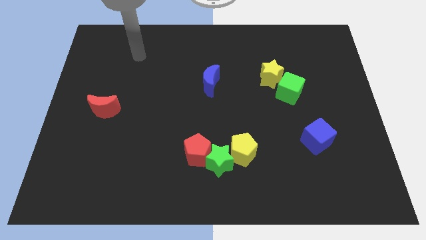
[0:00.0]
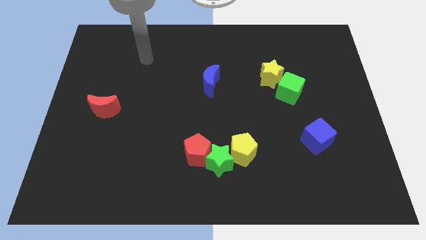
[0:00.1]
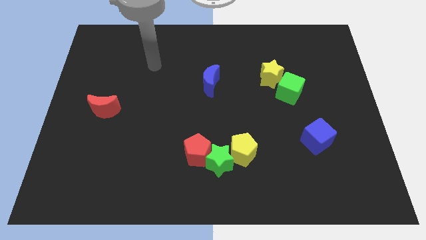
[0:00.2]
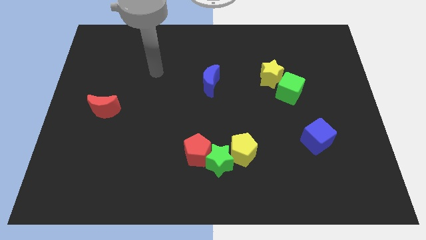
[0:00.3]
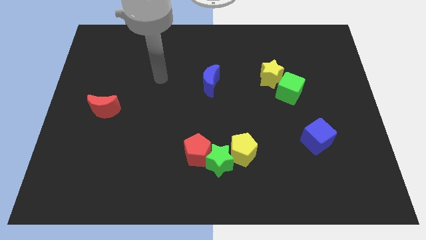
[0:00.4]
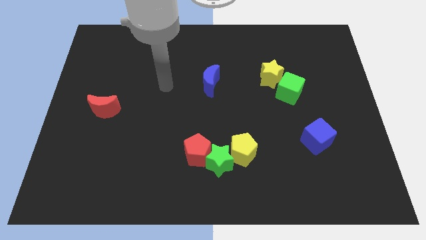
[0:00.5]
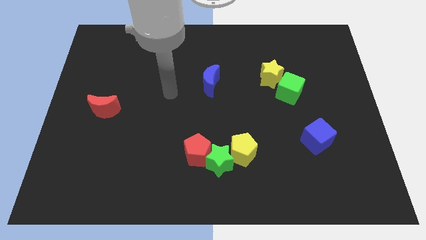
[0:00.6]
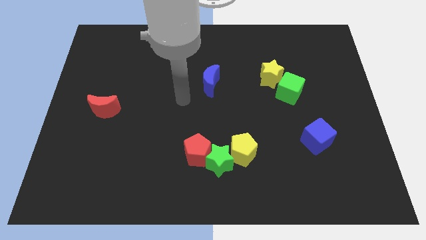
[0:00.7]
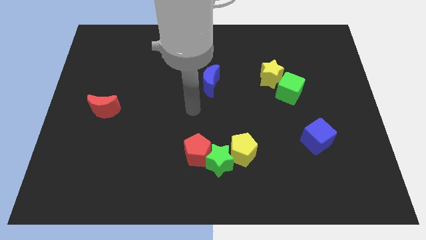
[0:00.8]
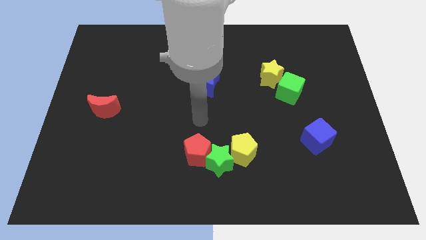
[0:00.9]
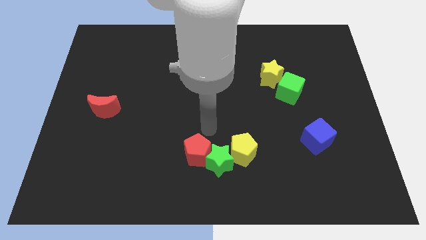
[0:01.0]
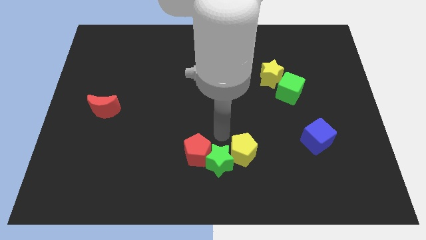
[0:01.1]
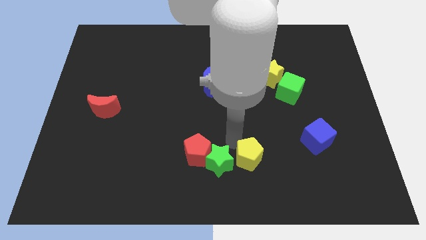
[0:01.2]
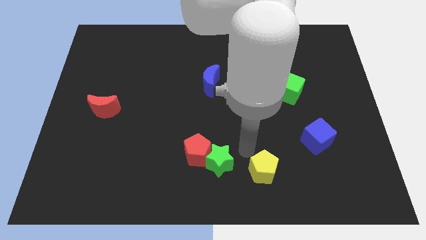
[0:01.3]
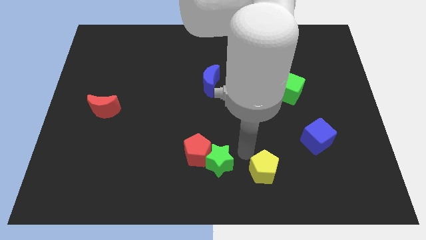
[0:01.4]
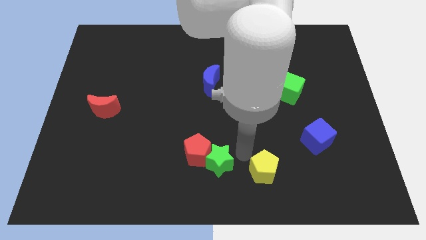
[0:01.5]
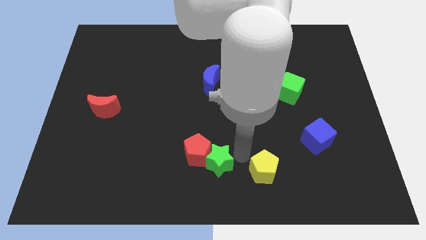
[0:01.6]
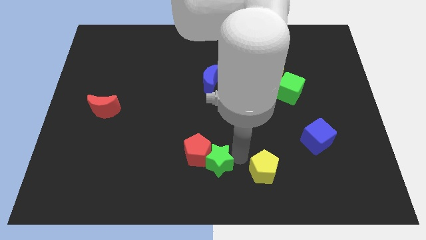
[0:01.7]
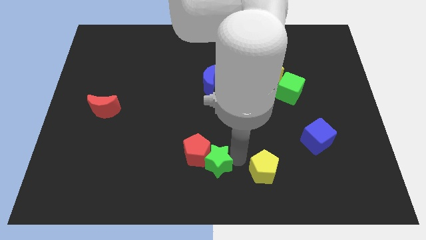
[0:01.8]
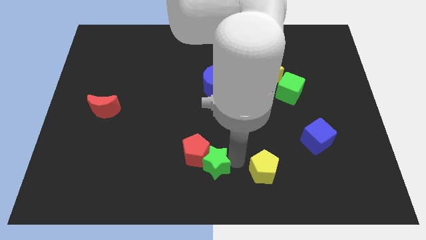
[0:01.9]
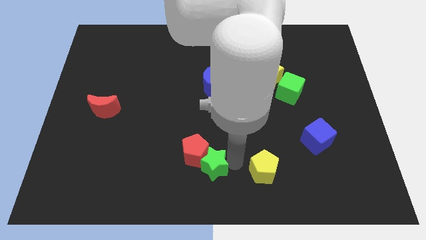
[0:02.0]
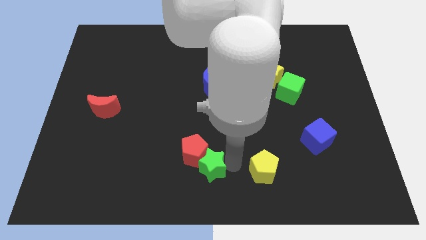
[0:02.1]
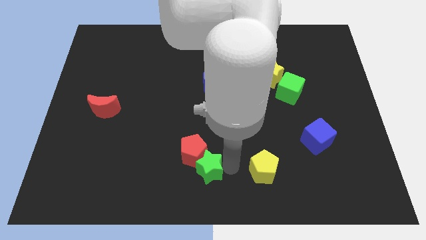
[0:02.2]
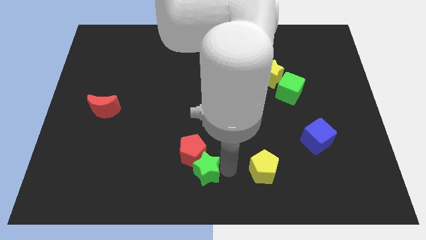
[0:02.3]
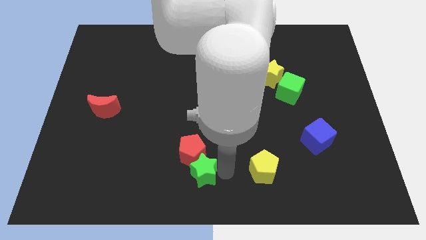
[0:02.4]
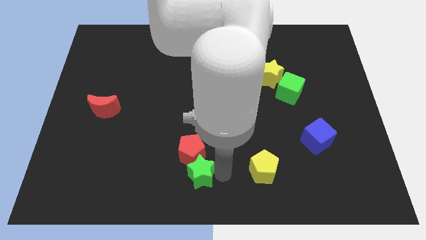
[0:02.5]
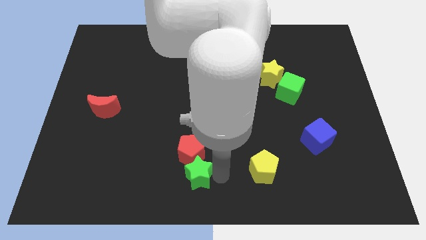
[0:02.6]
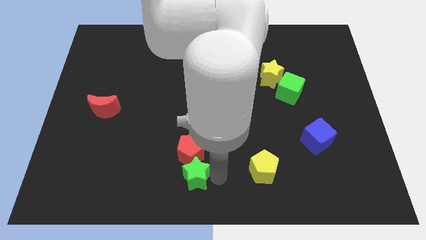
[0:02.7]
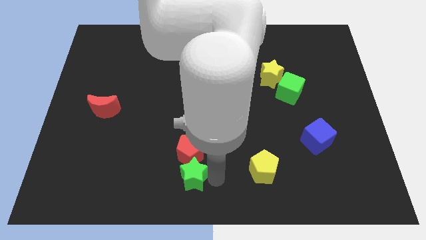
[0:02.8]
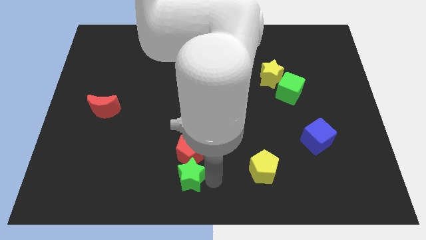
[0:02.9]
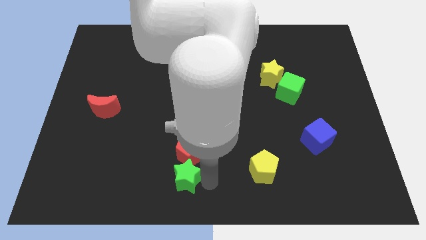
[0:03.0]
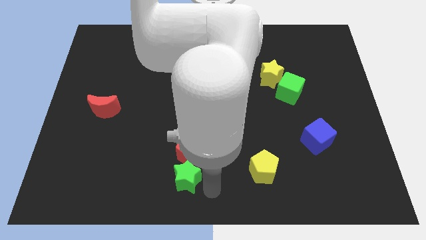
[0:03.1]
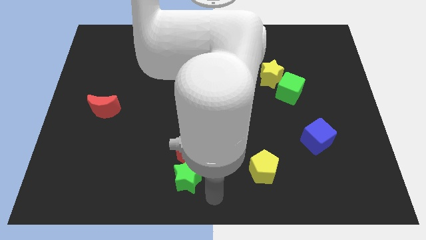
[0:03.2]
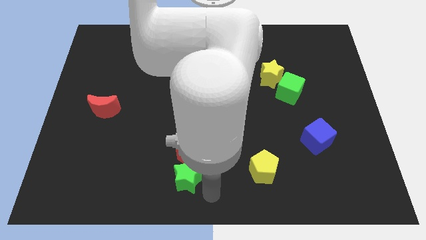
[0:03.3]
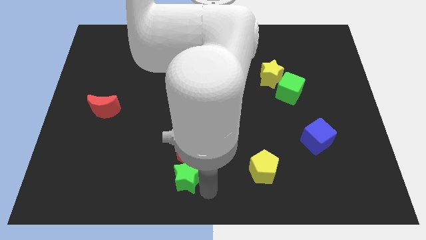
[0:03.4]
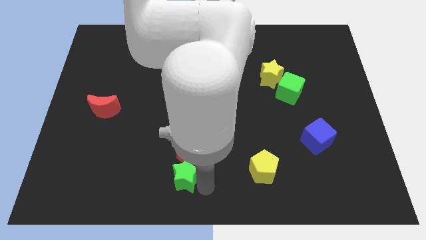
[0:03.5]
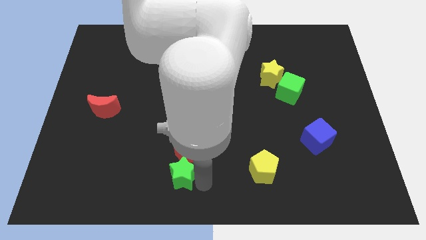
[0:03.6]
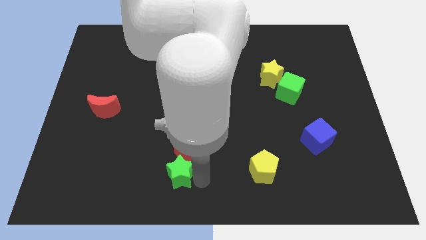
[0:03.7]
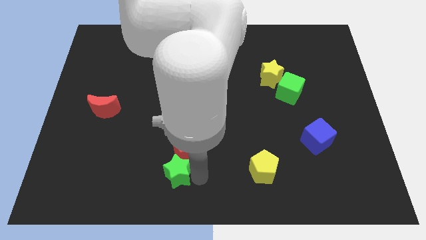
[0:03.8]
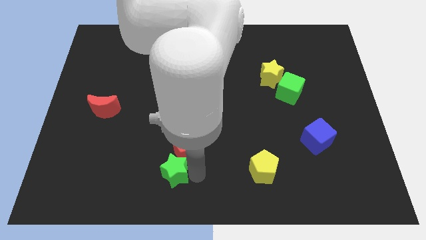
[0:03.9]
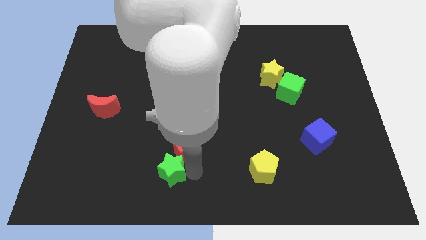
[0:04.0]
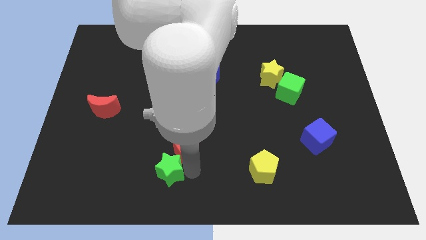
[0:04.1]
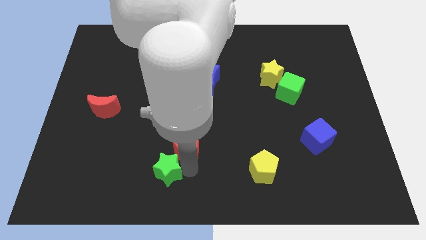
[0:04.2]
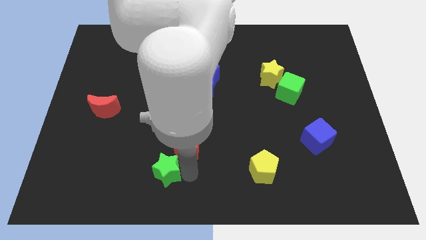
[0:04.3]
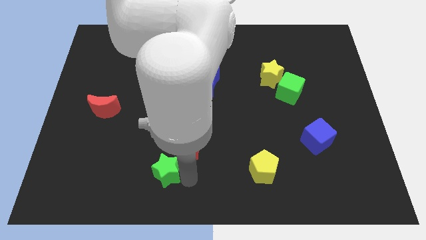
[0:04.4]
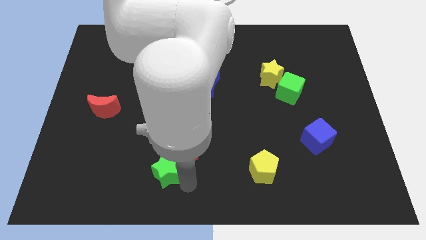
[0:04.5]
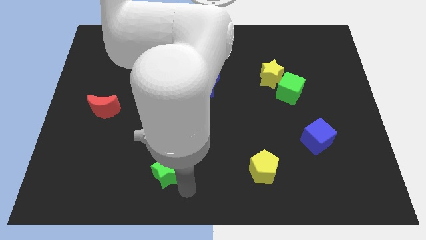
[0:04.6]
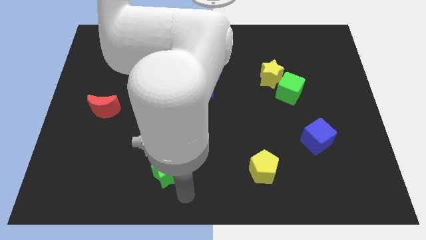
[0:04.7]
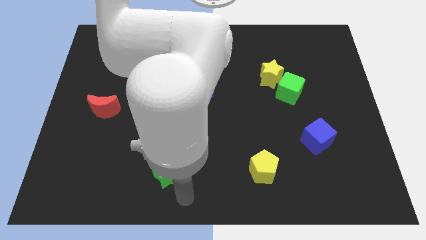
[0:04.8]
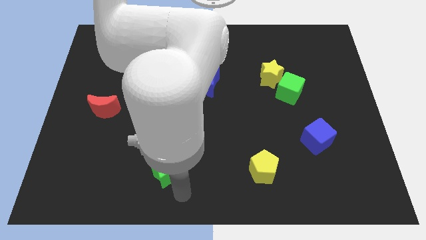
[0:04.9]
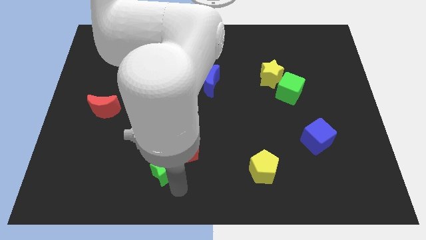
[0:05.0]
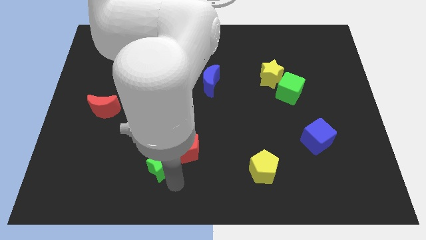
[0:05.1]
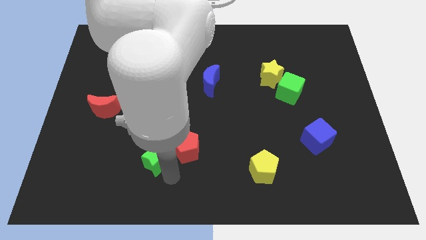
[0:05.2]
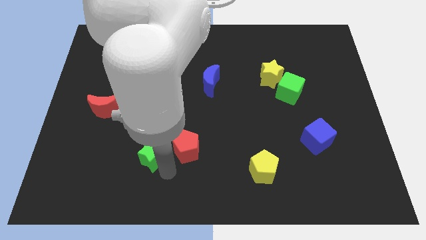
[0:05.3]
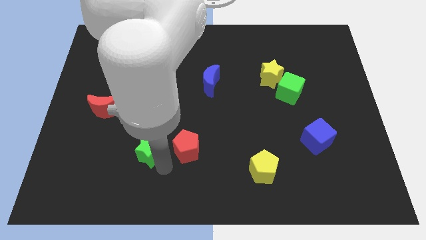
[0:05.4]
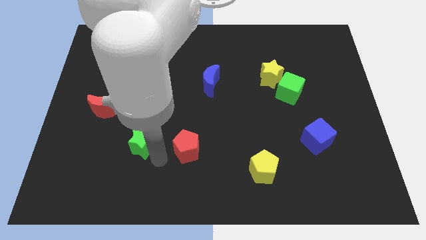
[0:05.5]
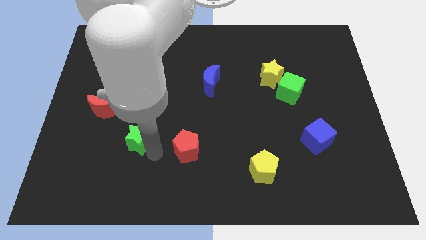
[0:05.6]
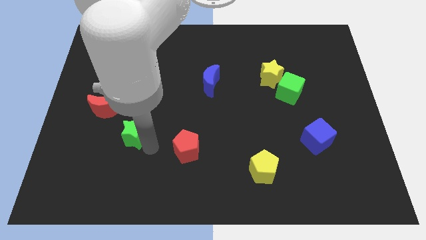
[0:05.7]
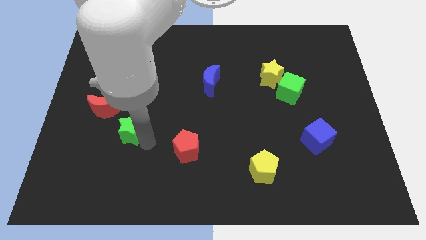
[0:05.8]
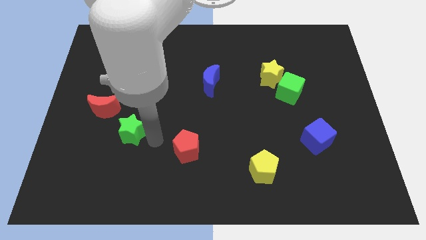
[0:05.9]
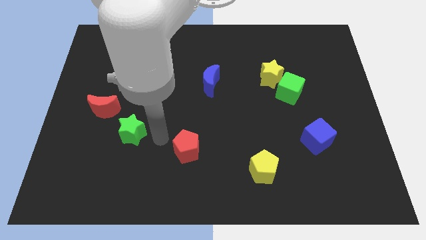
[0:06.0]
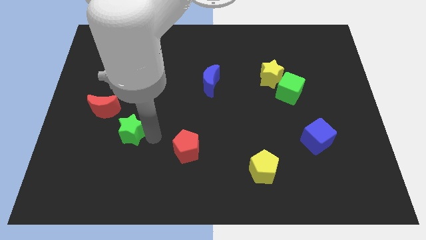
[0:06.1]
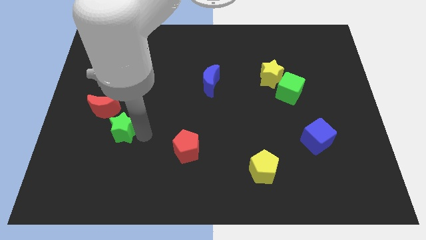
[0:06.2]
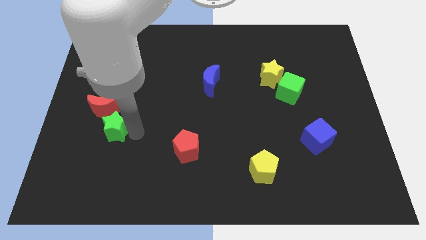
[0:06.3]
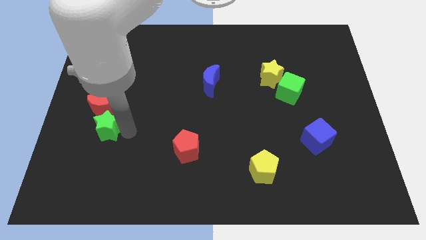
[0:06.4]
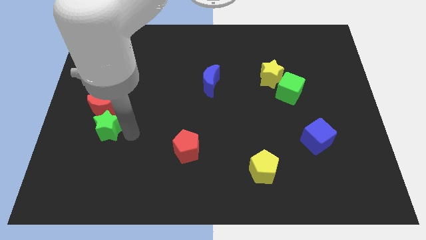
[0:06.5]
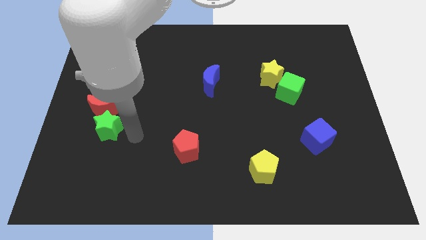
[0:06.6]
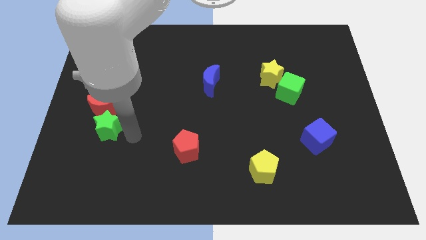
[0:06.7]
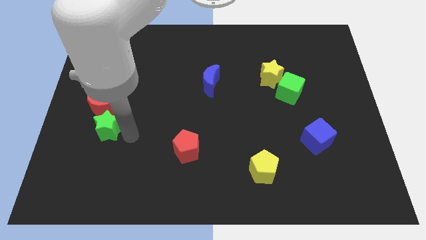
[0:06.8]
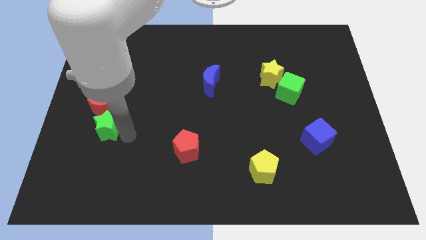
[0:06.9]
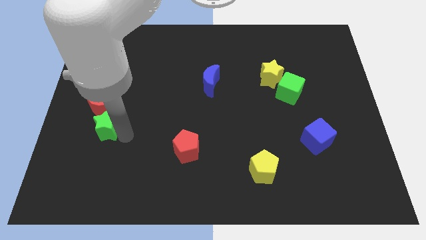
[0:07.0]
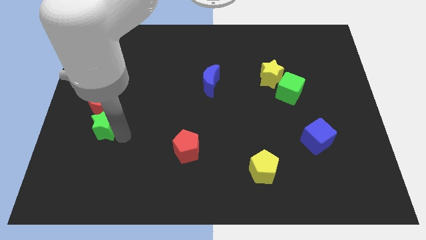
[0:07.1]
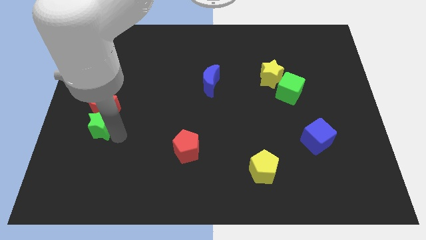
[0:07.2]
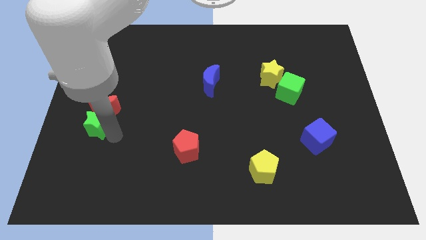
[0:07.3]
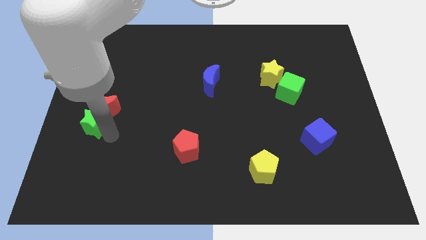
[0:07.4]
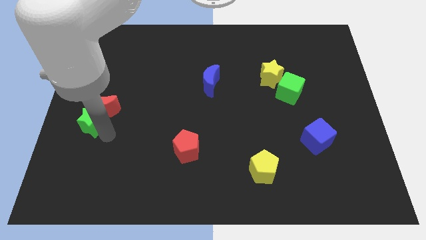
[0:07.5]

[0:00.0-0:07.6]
push the green star to the left side
